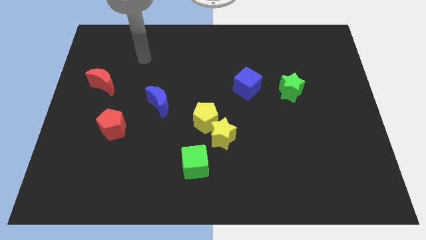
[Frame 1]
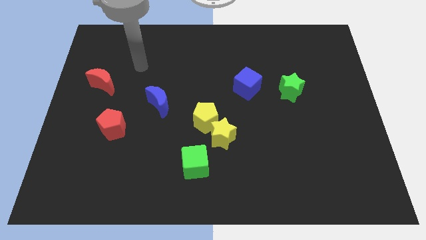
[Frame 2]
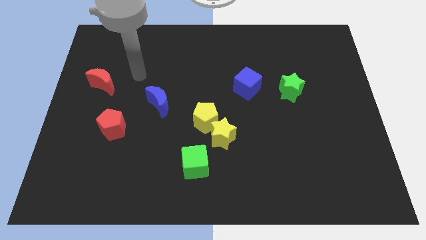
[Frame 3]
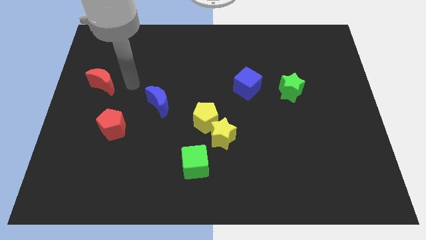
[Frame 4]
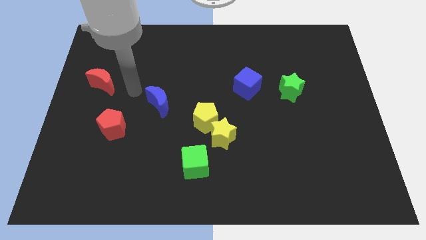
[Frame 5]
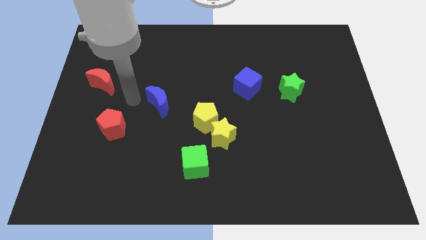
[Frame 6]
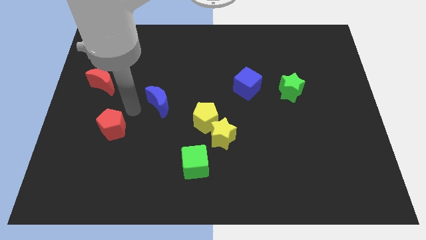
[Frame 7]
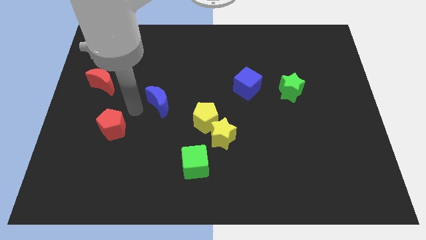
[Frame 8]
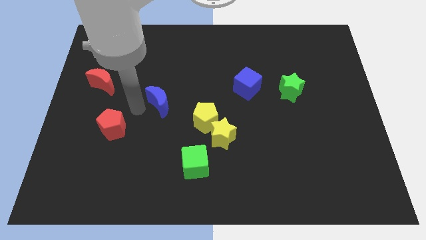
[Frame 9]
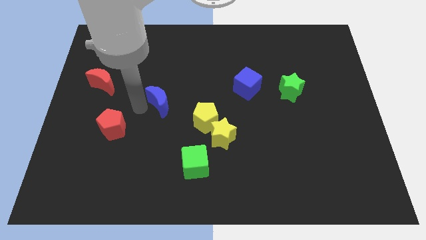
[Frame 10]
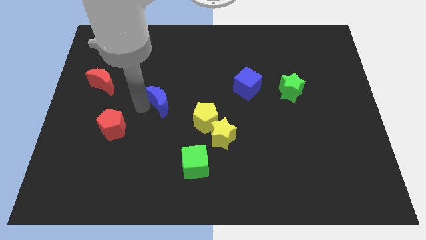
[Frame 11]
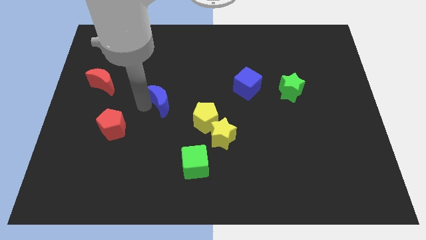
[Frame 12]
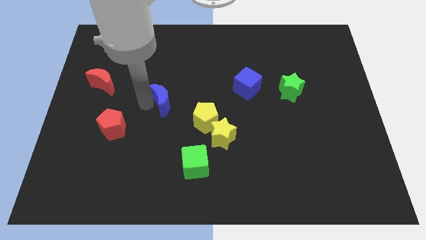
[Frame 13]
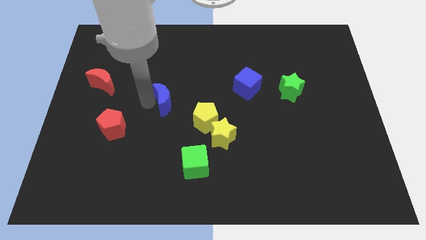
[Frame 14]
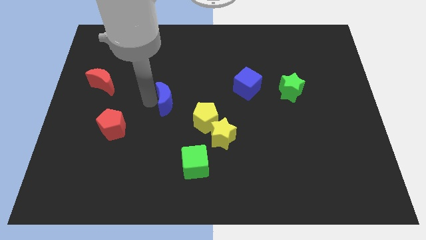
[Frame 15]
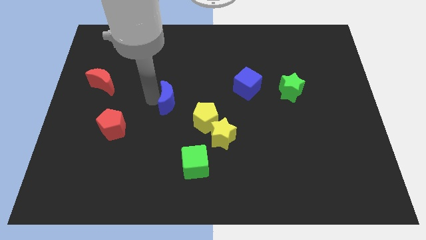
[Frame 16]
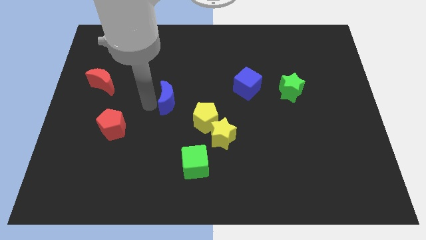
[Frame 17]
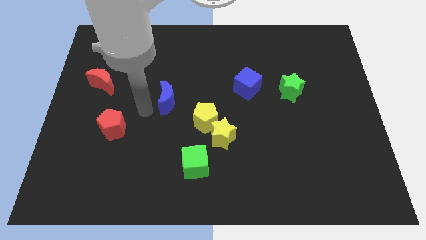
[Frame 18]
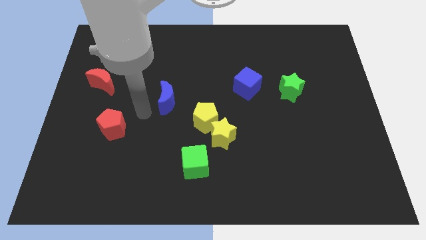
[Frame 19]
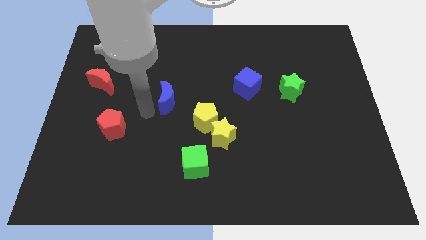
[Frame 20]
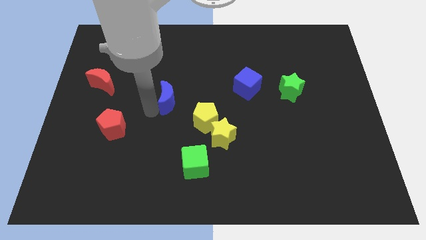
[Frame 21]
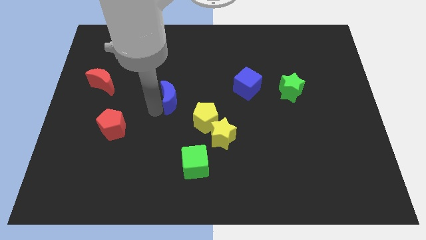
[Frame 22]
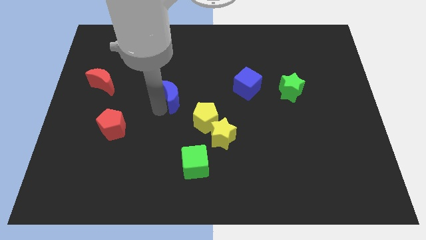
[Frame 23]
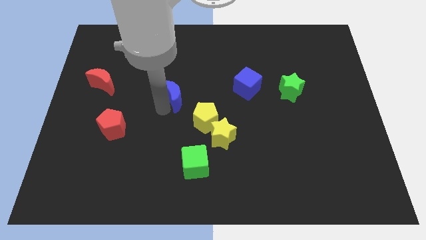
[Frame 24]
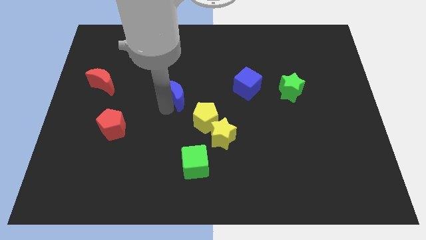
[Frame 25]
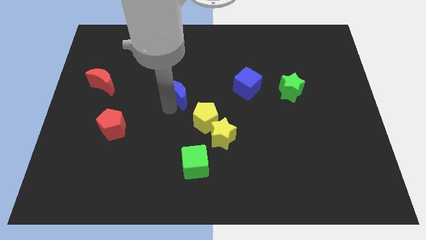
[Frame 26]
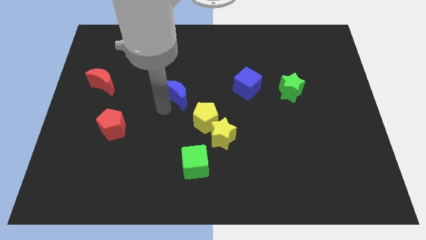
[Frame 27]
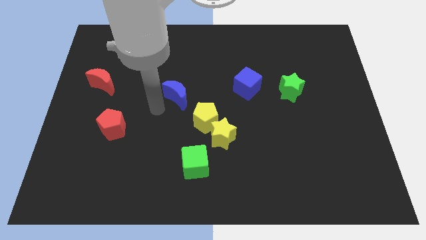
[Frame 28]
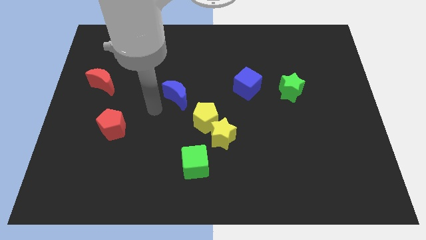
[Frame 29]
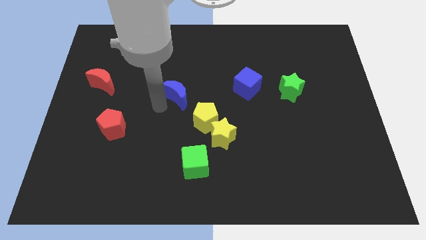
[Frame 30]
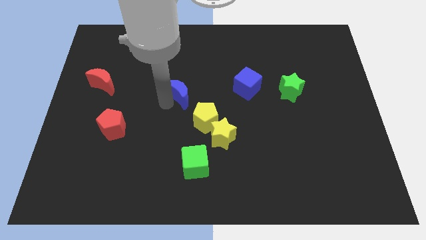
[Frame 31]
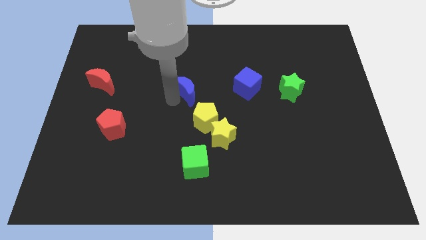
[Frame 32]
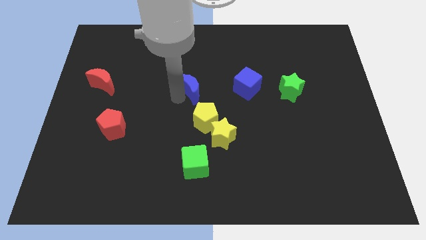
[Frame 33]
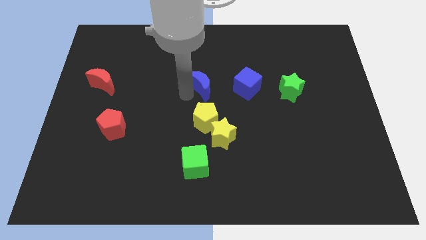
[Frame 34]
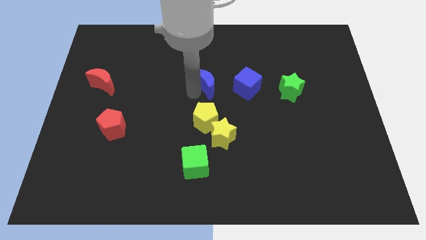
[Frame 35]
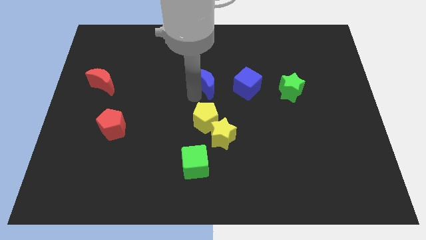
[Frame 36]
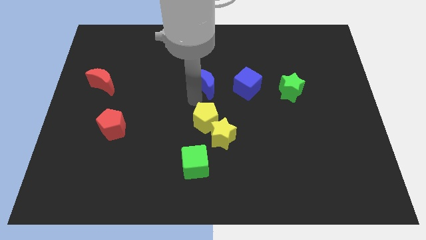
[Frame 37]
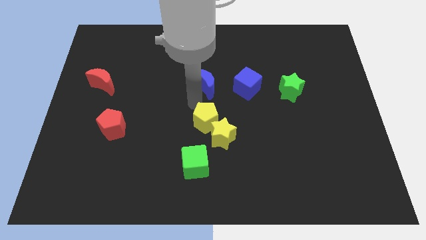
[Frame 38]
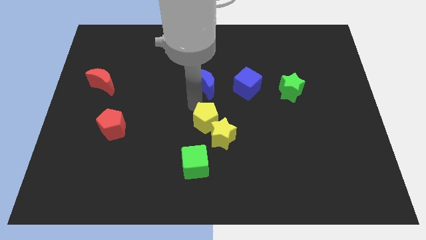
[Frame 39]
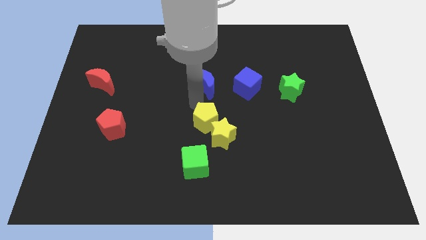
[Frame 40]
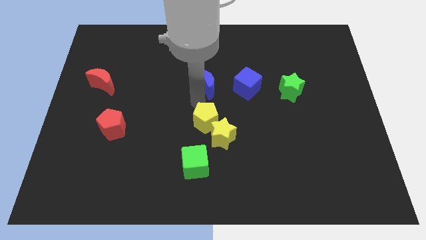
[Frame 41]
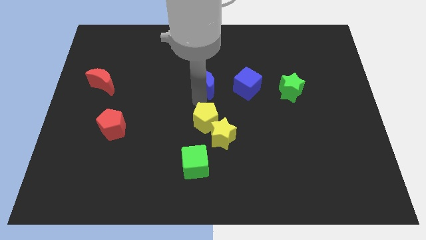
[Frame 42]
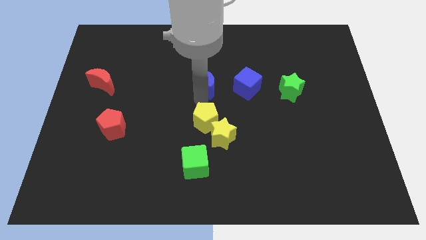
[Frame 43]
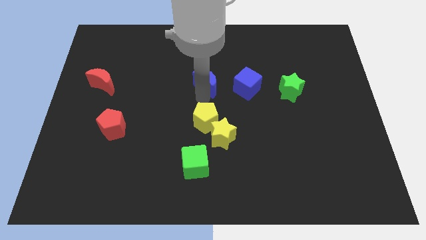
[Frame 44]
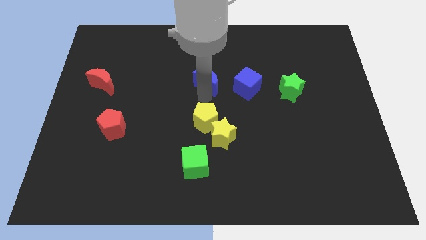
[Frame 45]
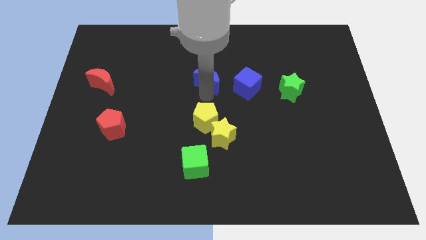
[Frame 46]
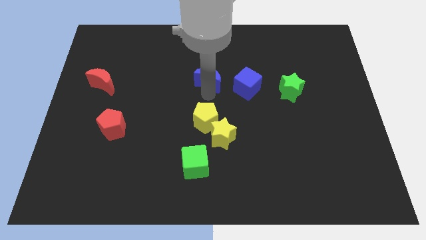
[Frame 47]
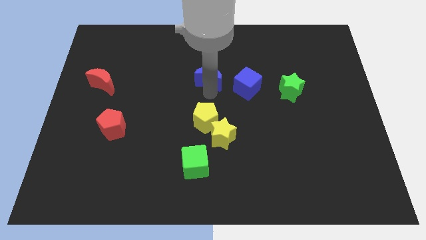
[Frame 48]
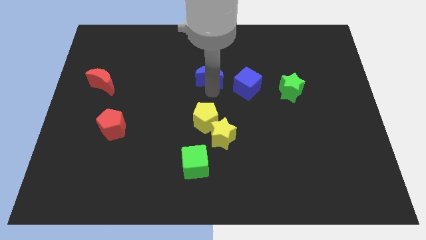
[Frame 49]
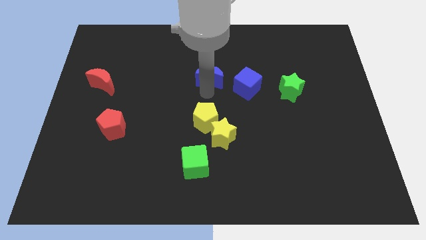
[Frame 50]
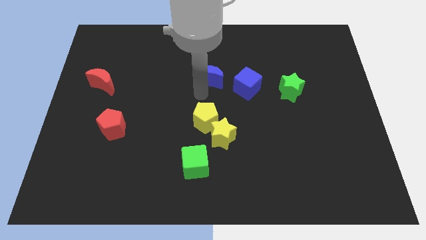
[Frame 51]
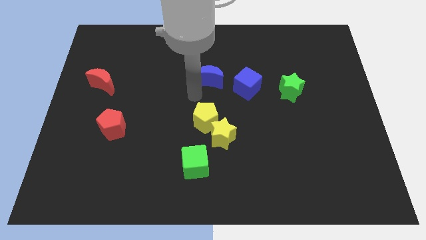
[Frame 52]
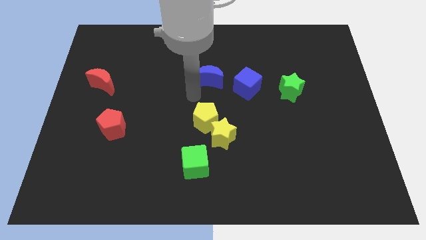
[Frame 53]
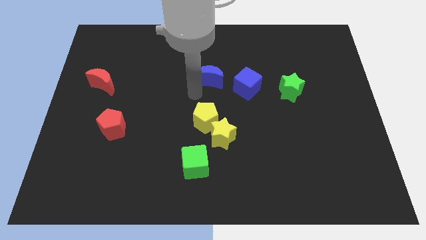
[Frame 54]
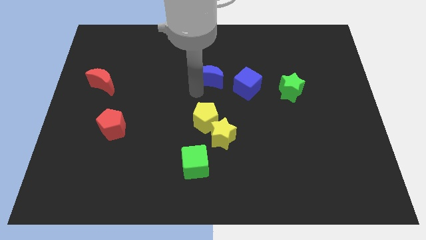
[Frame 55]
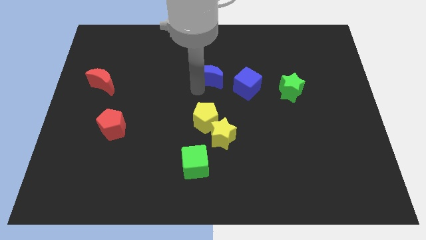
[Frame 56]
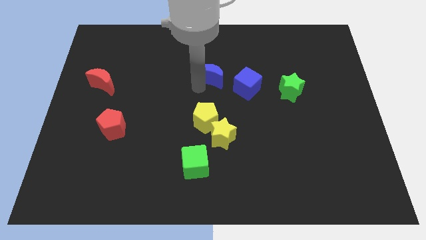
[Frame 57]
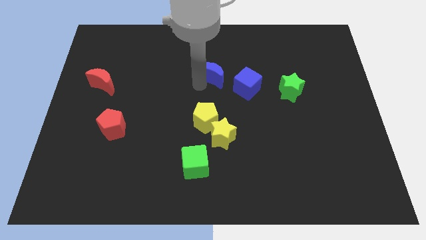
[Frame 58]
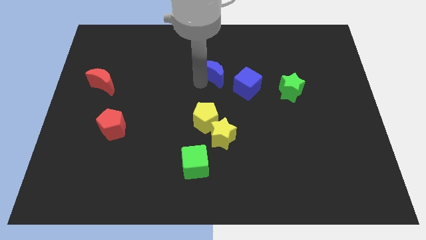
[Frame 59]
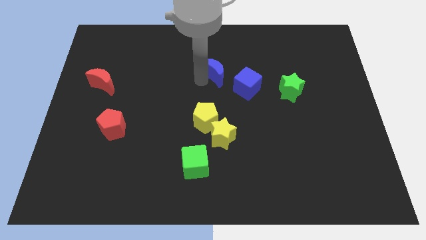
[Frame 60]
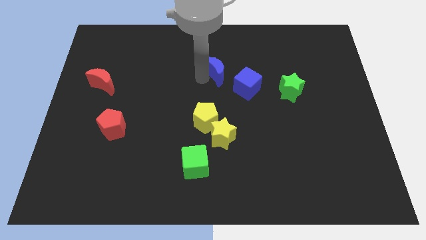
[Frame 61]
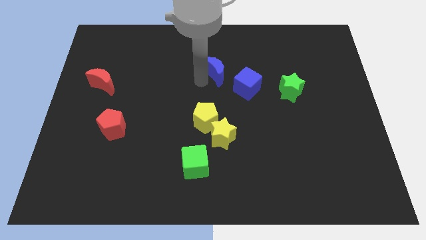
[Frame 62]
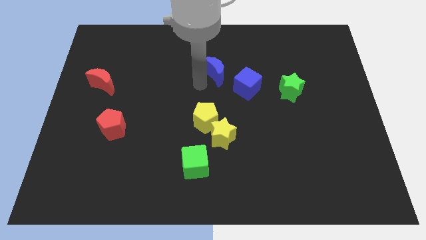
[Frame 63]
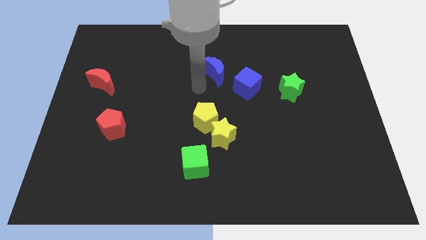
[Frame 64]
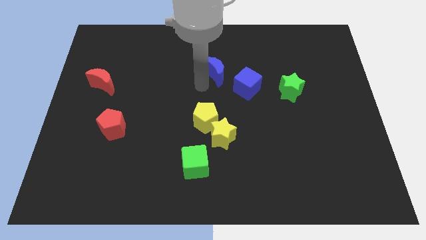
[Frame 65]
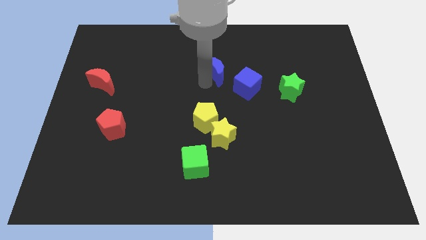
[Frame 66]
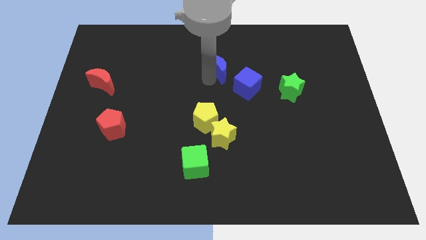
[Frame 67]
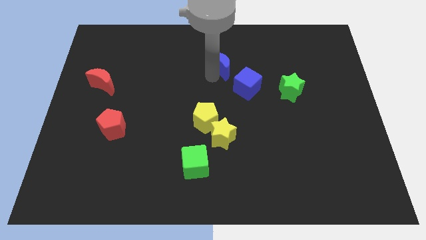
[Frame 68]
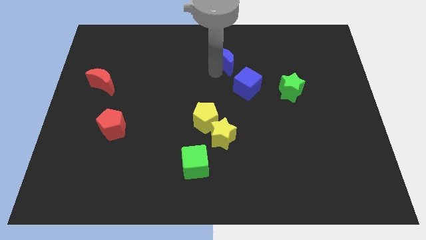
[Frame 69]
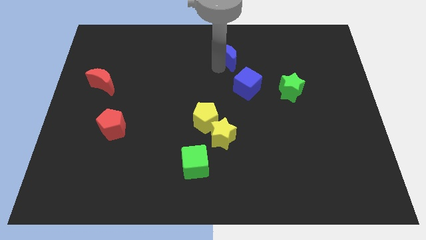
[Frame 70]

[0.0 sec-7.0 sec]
push the blue moon to the top of the blue cube

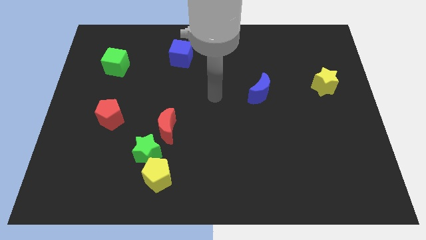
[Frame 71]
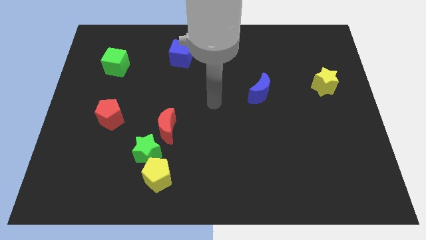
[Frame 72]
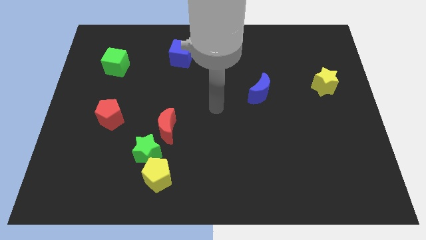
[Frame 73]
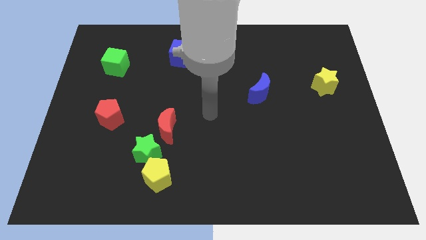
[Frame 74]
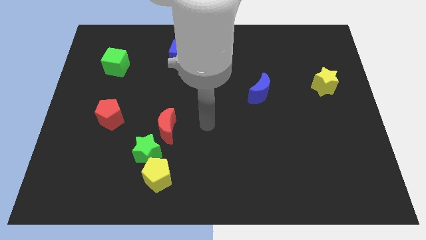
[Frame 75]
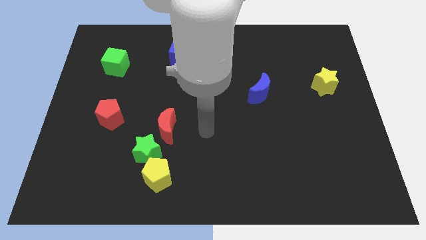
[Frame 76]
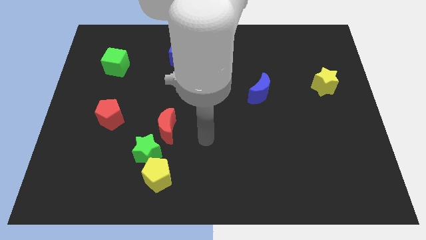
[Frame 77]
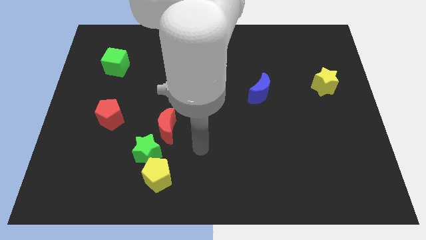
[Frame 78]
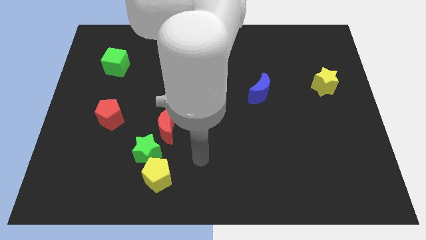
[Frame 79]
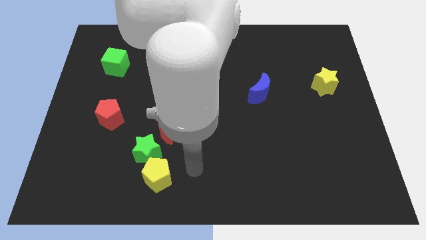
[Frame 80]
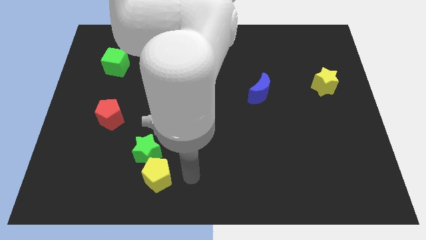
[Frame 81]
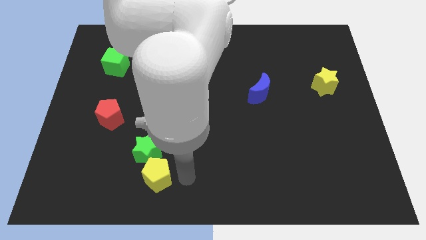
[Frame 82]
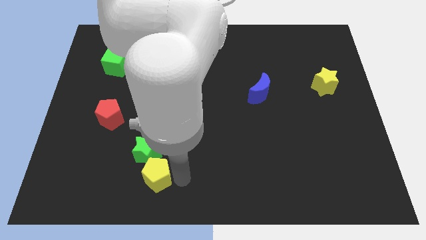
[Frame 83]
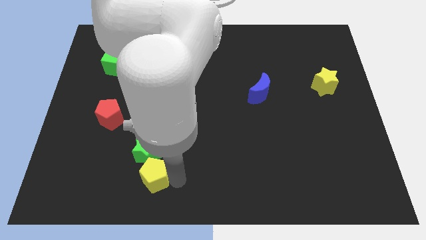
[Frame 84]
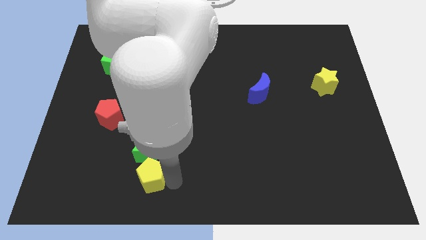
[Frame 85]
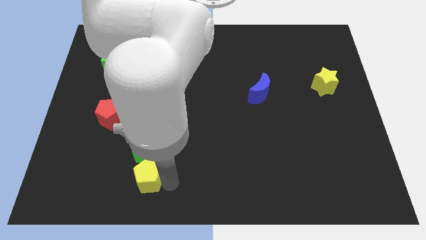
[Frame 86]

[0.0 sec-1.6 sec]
put the yellow pentagon to the bottom left side of the green star
